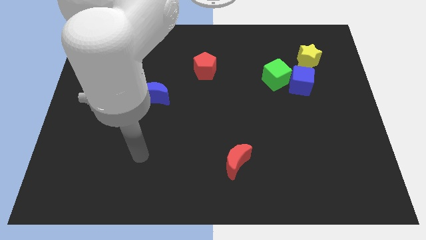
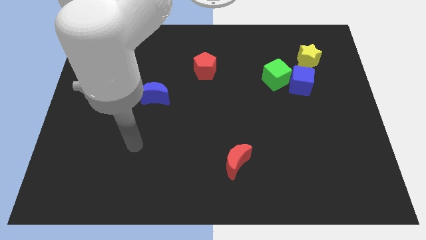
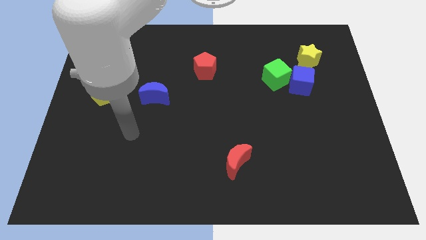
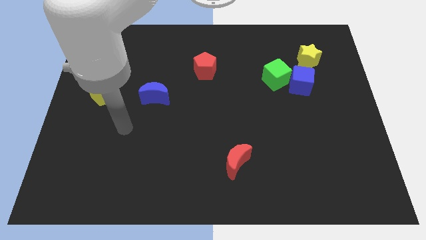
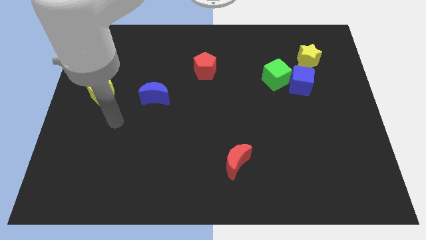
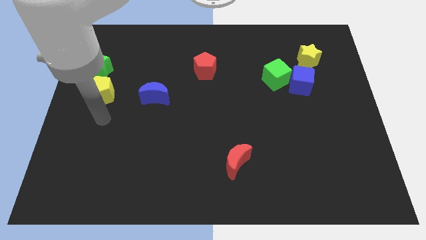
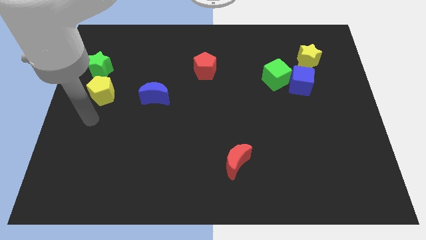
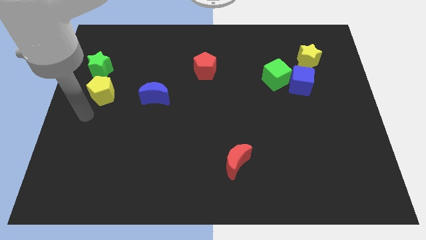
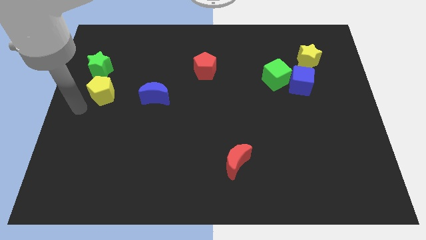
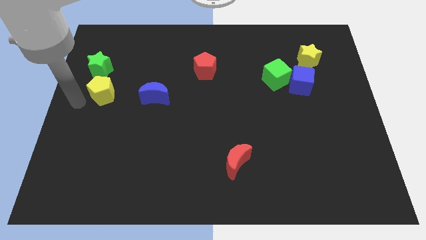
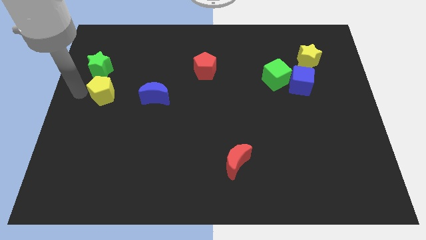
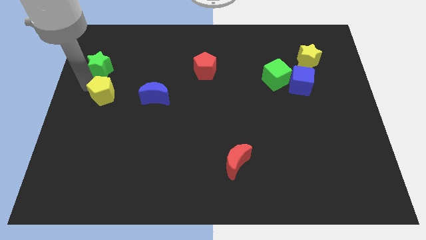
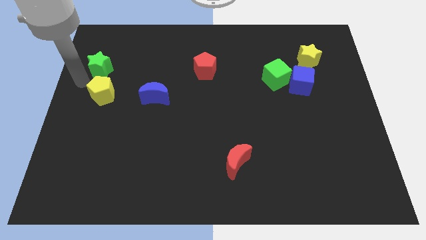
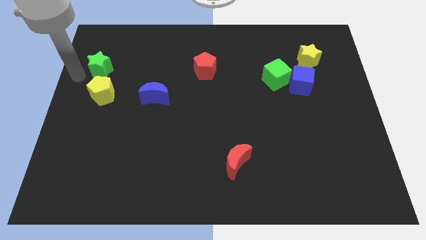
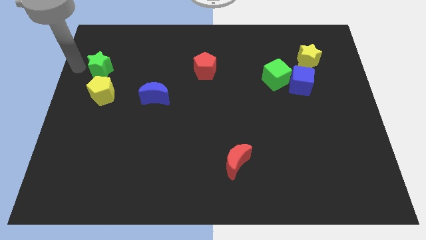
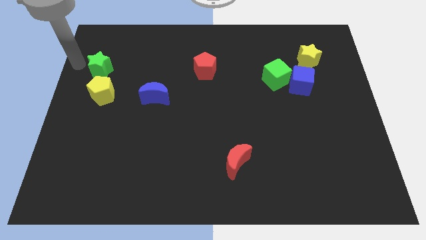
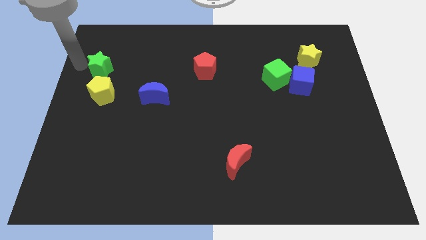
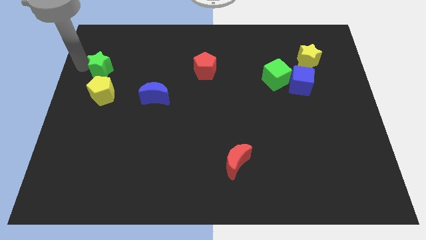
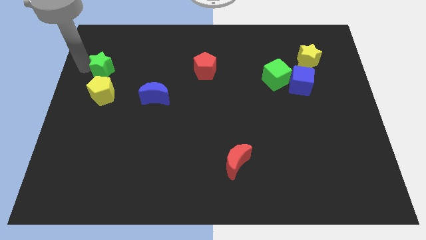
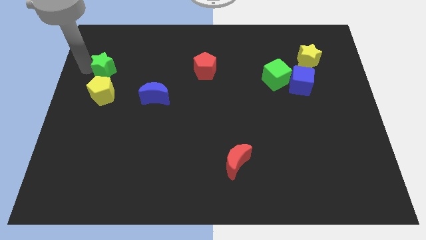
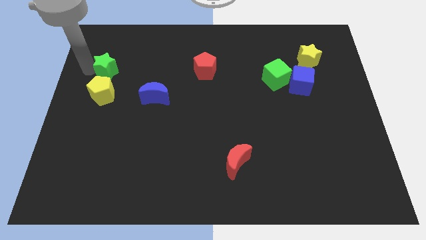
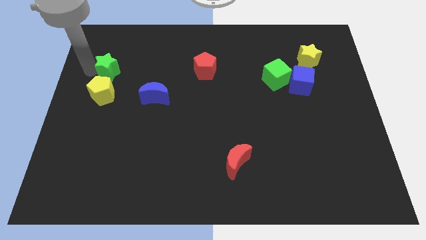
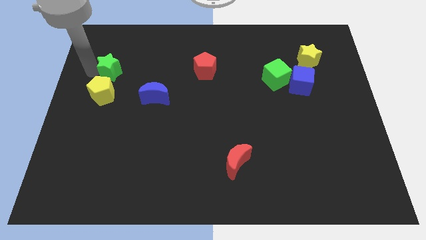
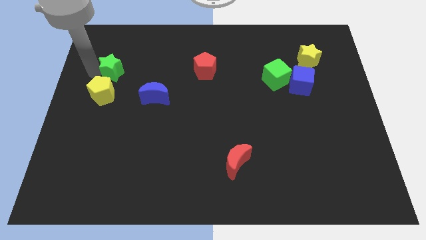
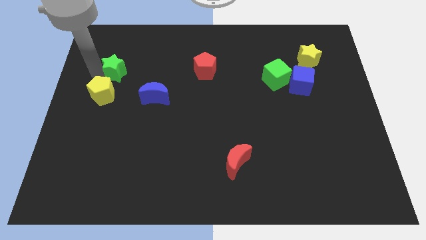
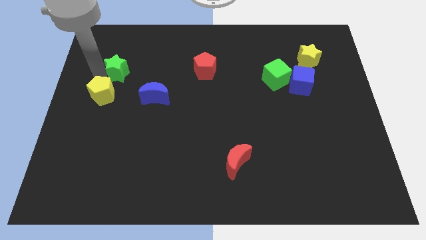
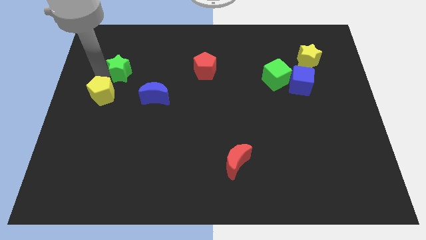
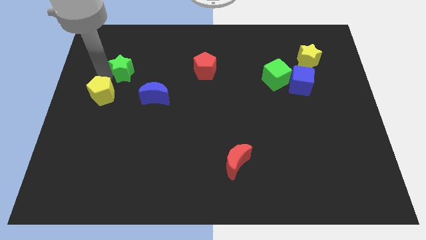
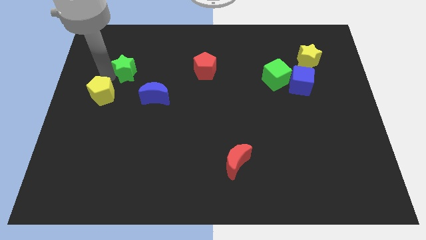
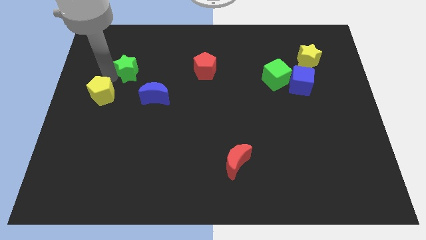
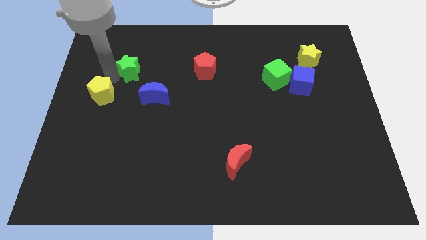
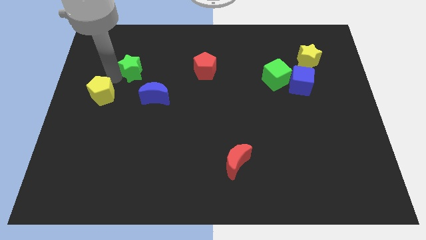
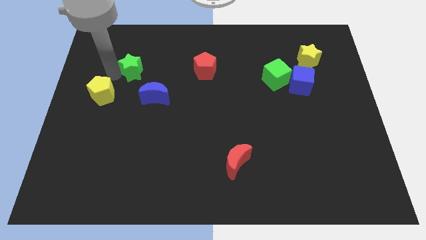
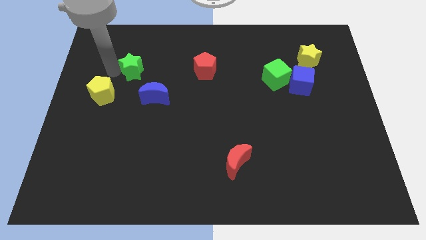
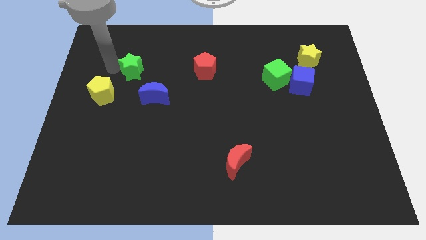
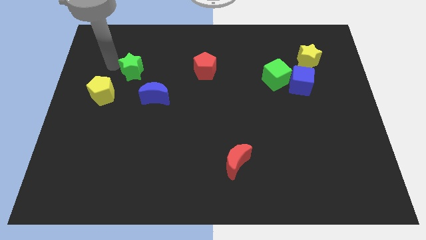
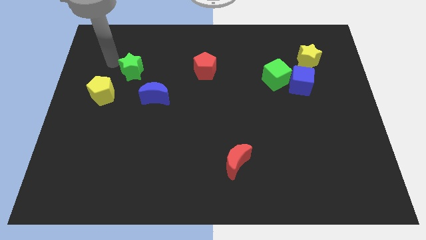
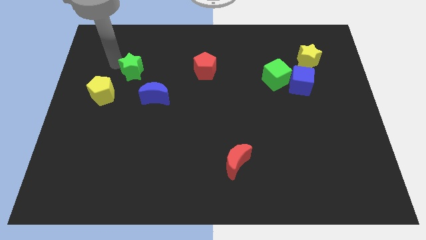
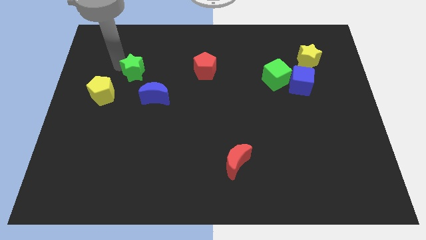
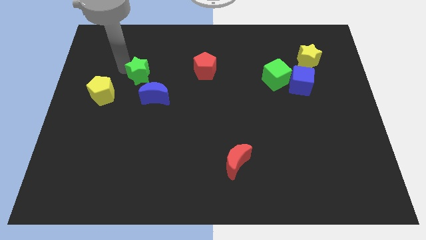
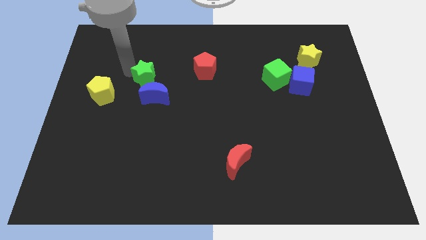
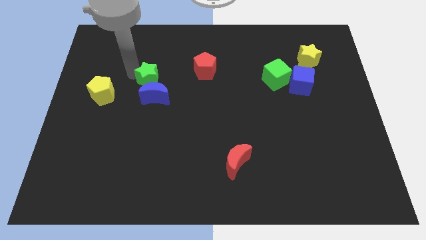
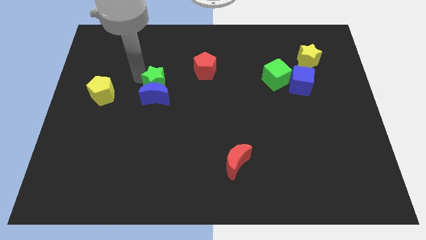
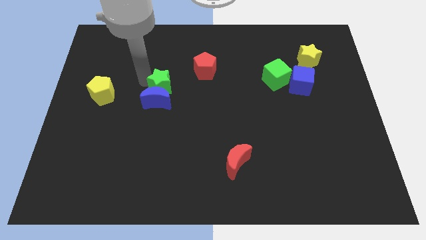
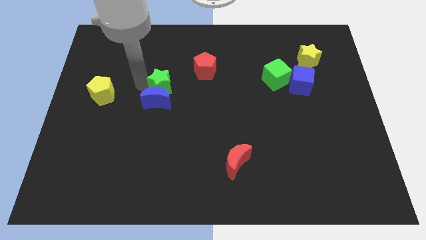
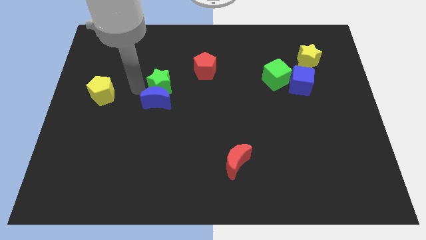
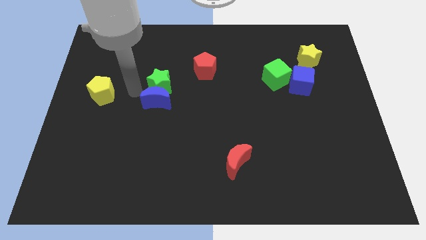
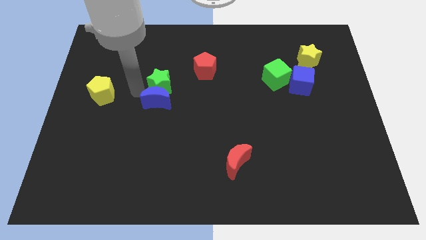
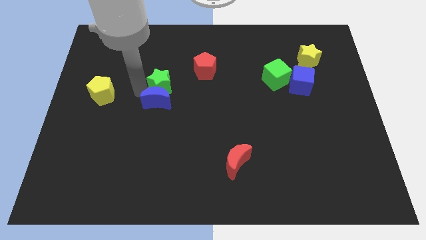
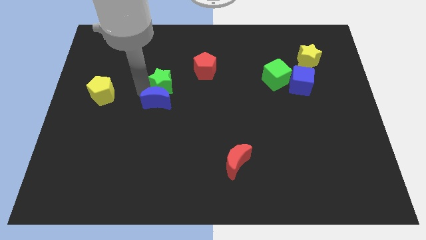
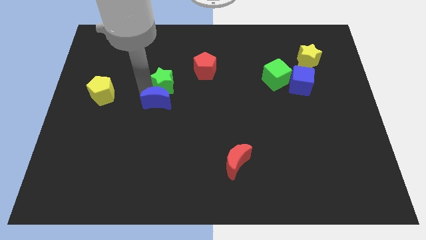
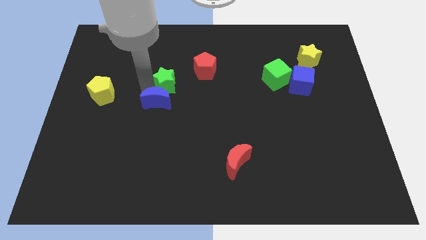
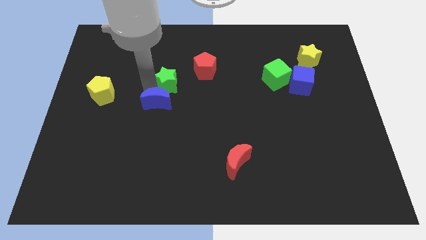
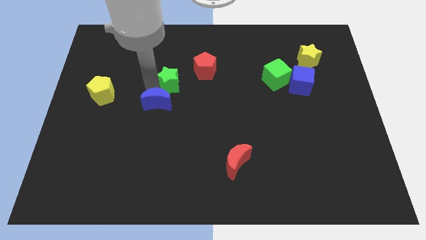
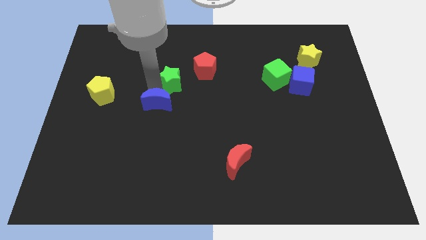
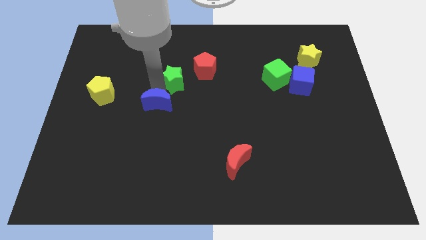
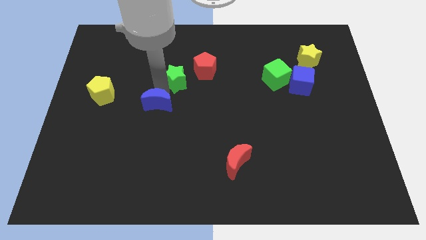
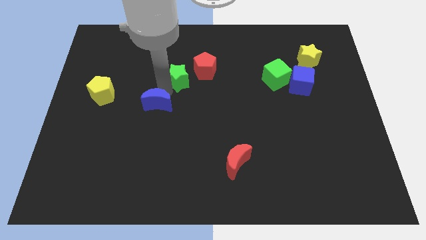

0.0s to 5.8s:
push the green star to the right

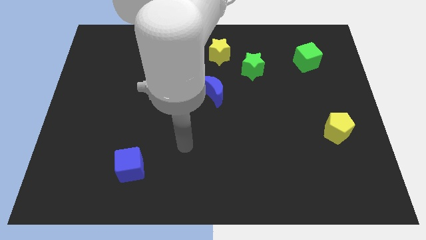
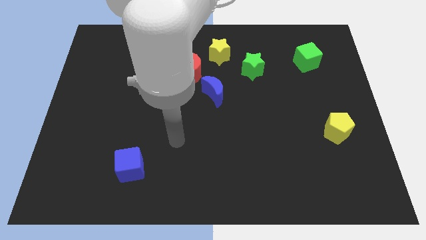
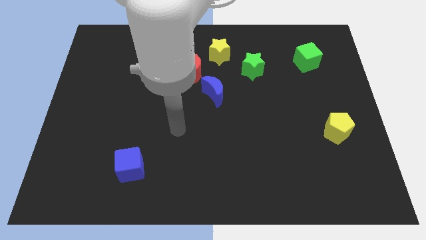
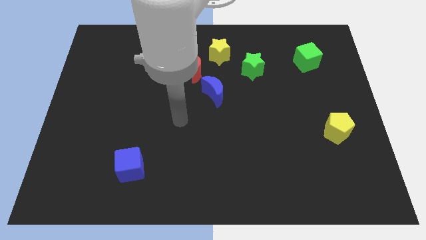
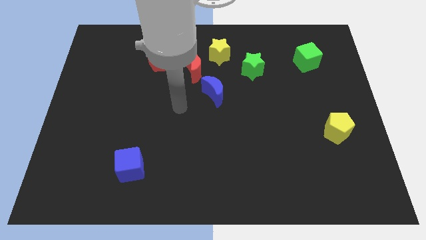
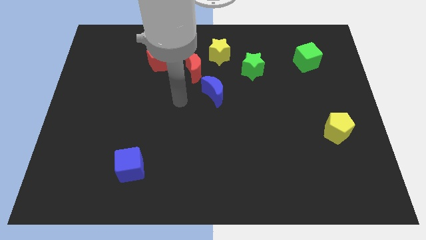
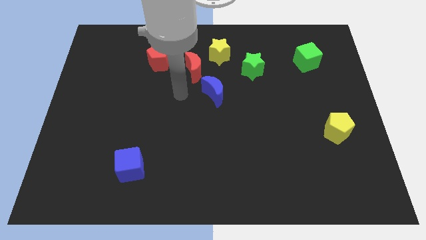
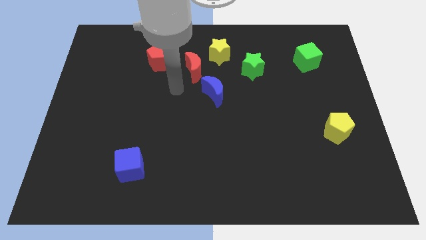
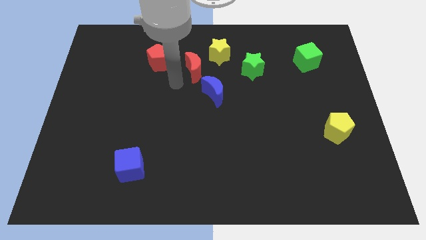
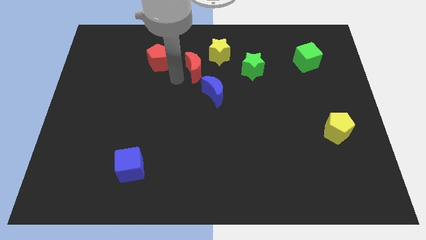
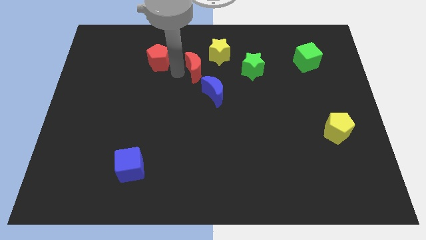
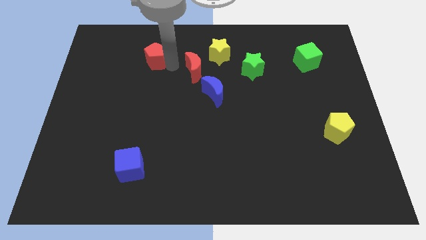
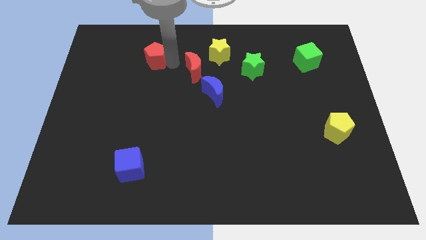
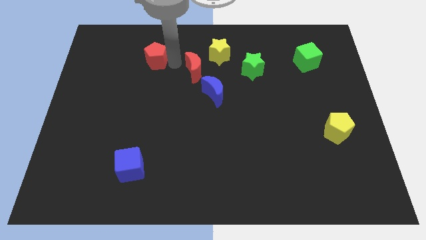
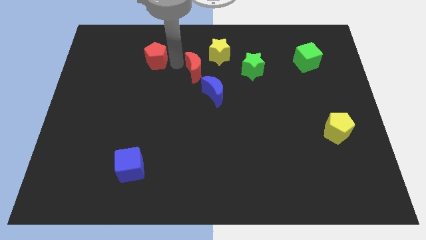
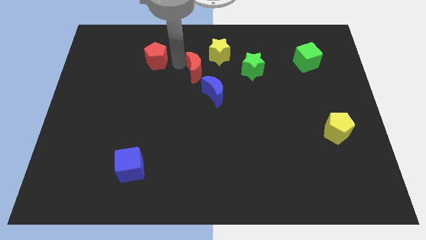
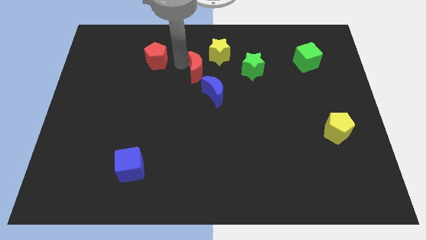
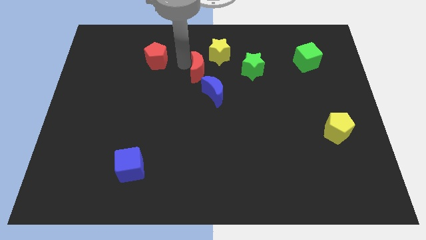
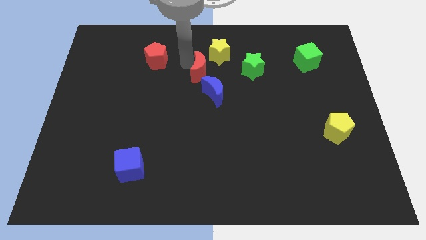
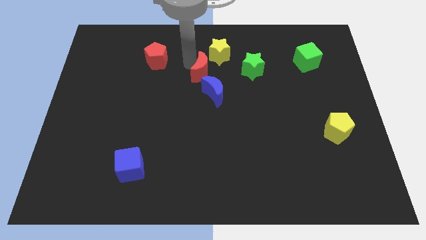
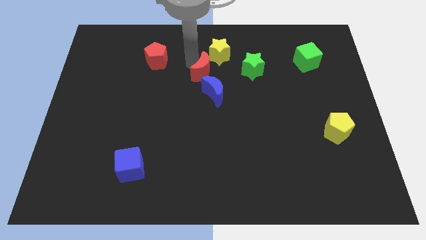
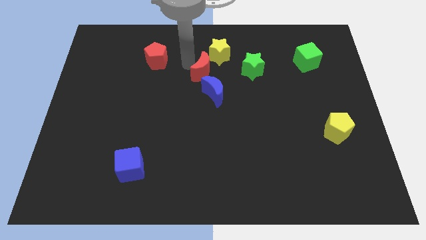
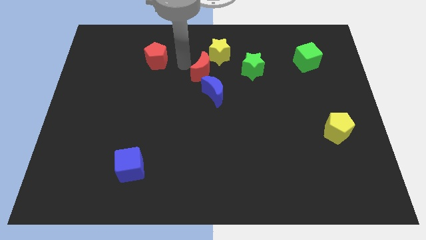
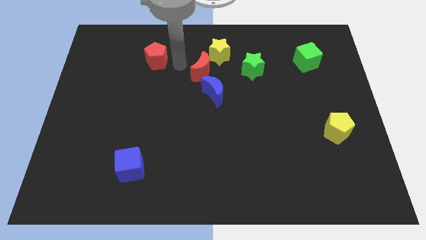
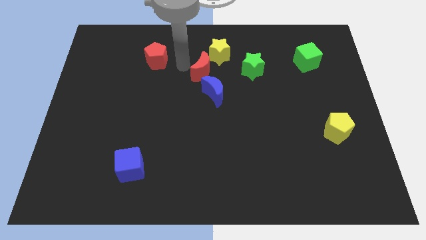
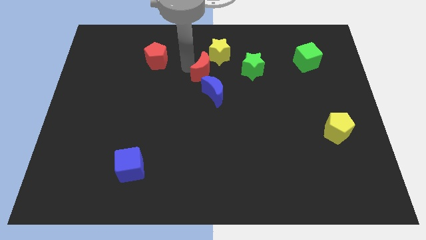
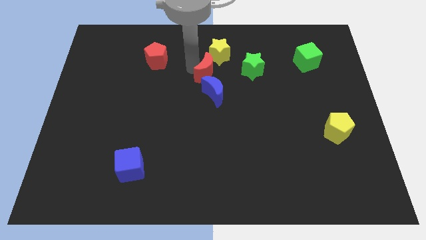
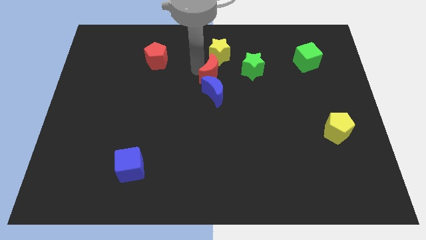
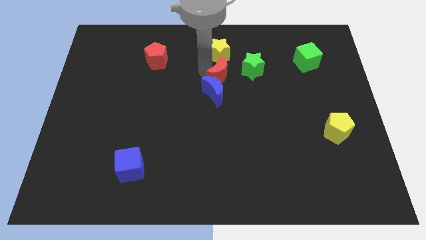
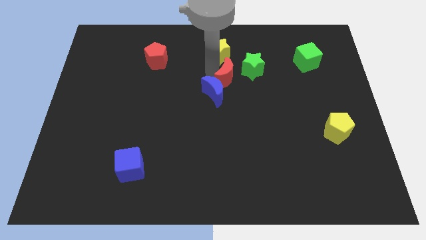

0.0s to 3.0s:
slide the red moon right a little bit
